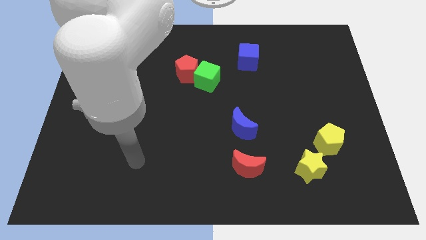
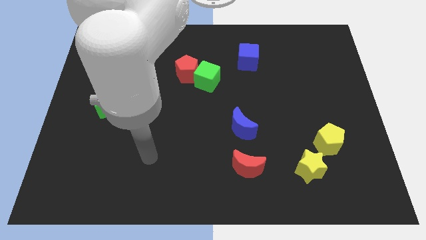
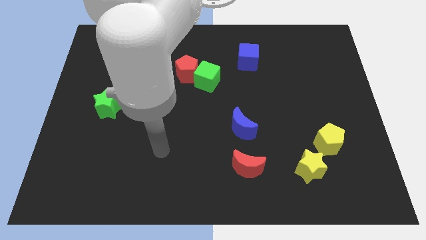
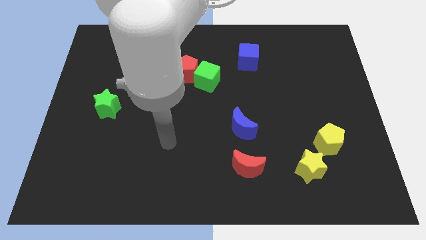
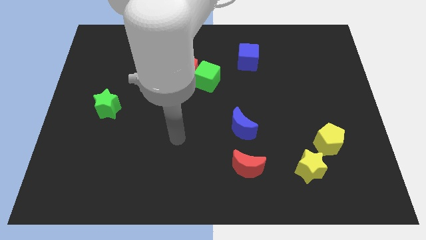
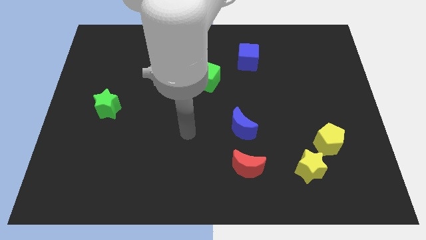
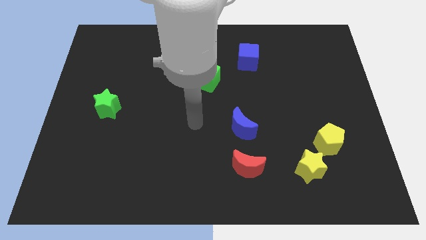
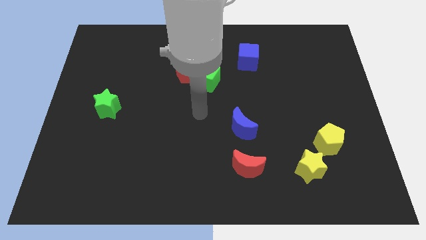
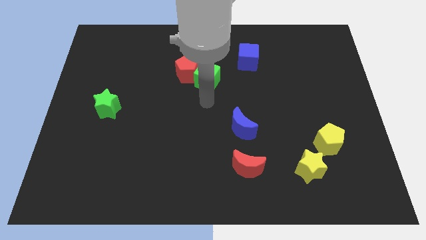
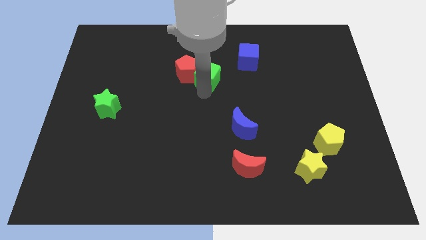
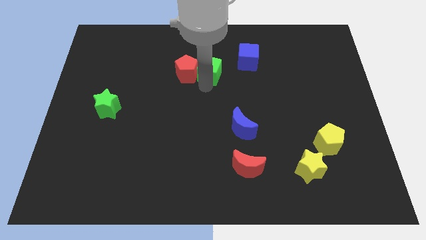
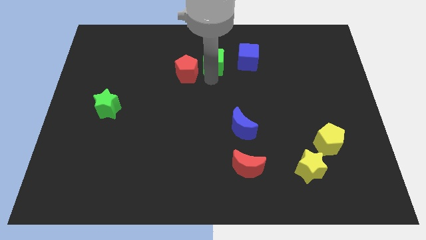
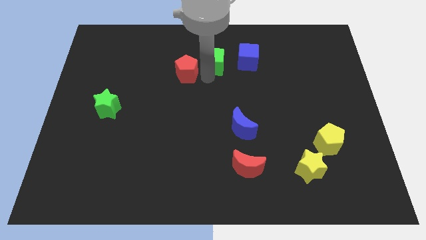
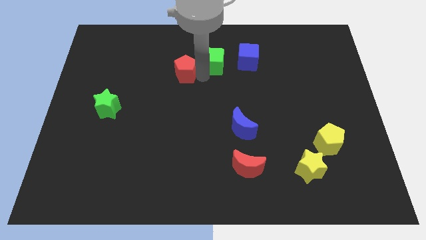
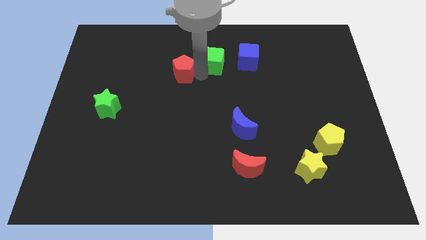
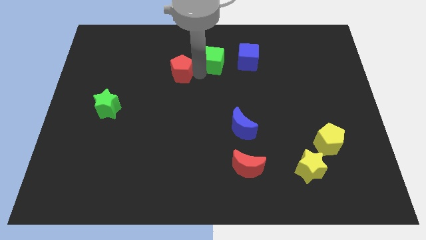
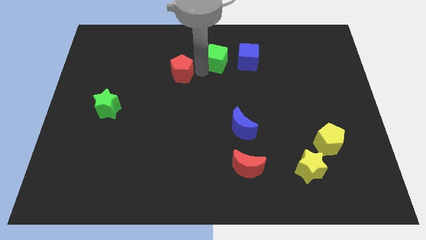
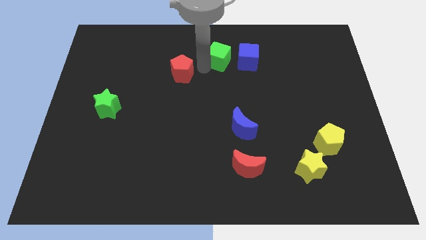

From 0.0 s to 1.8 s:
separate the red pentagon from the green cube

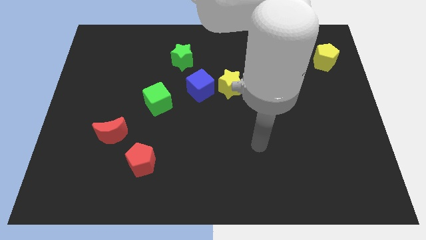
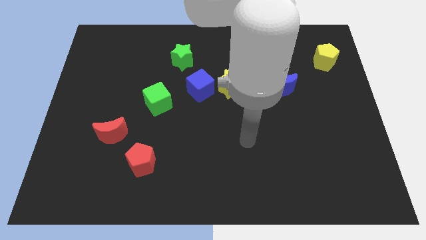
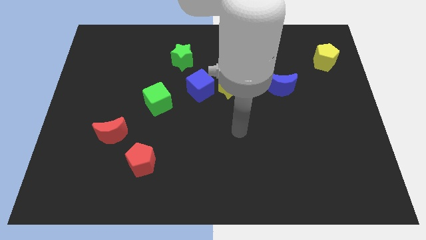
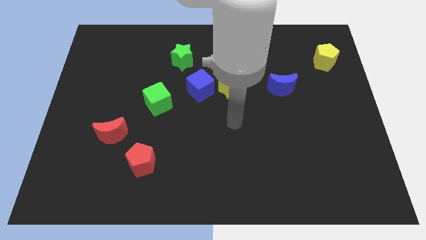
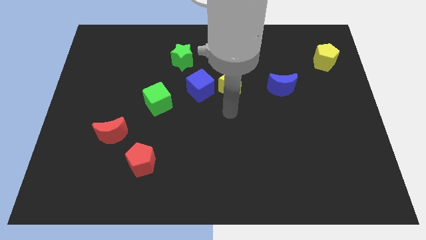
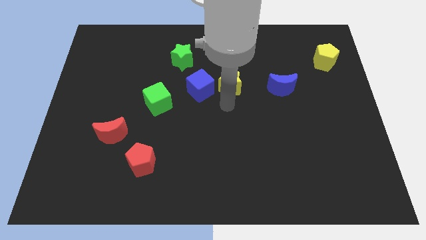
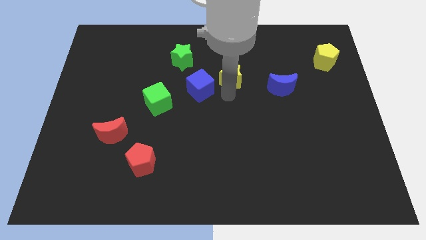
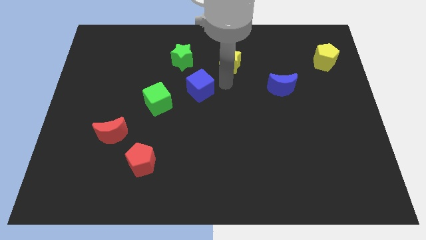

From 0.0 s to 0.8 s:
pull the blue cube apart from the yellow star

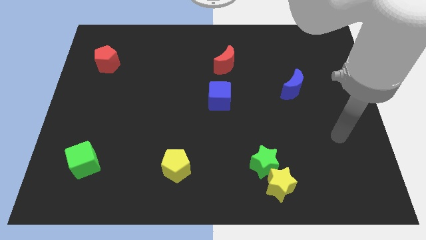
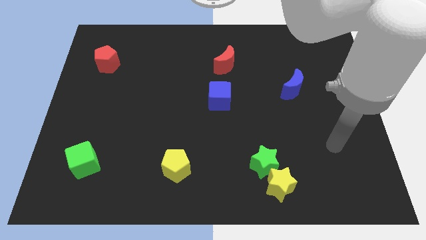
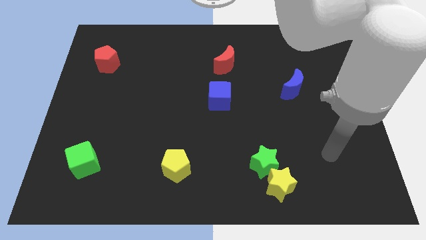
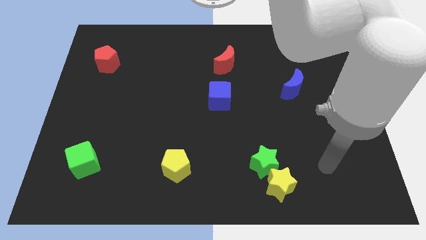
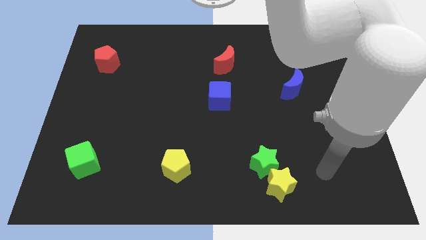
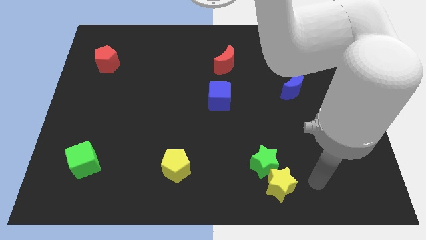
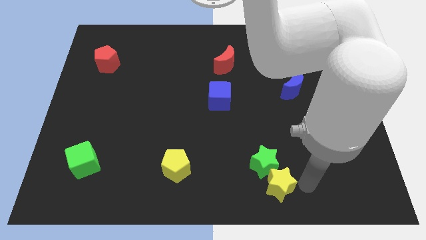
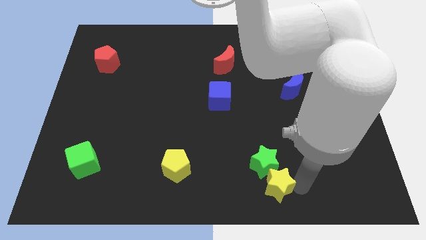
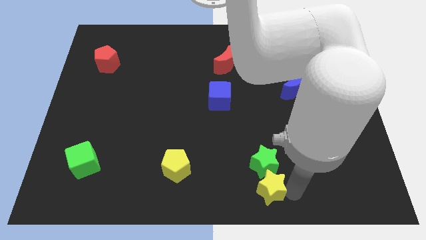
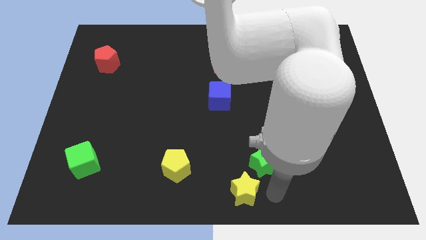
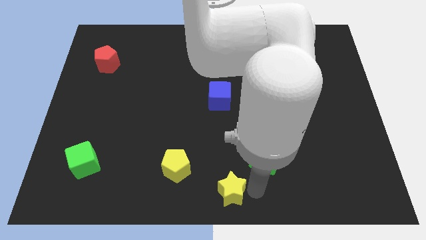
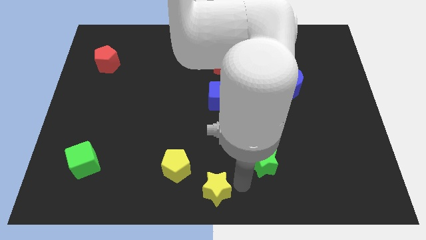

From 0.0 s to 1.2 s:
pull the green star apart from the yellow star

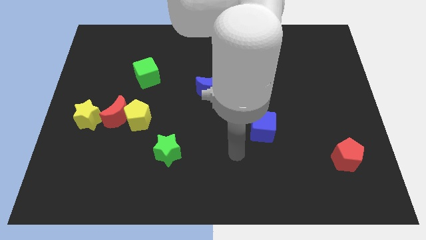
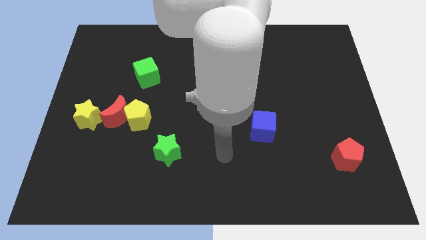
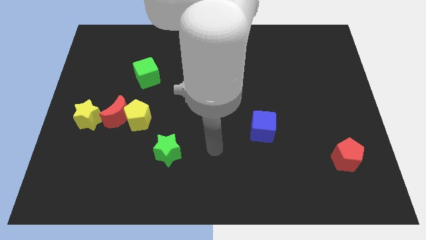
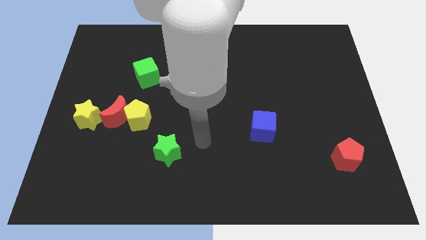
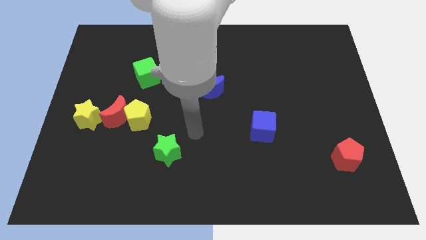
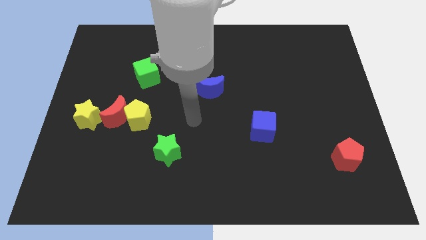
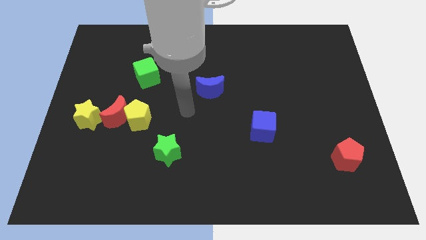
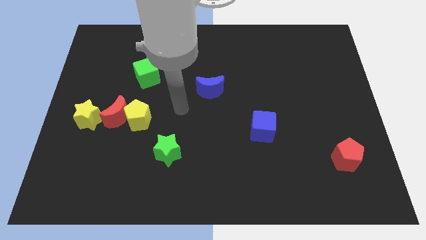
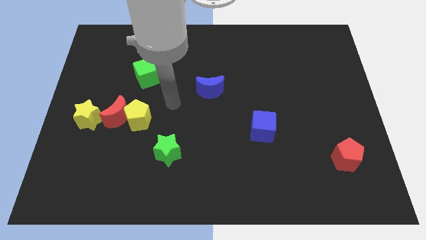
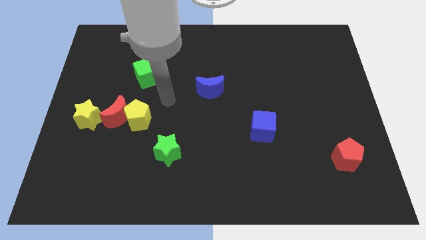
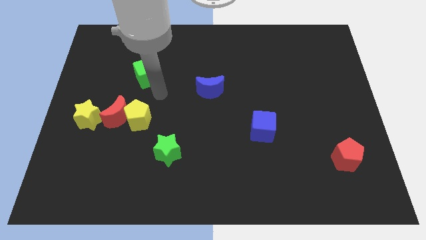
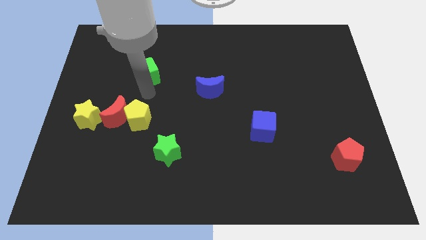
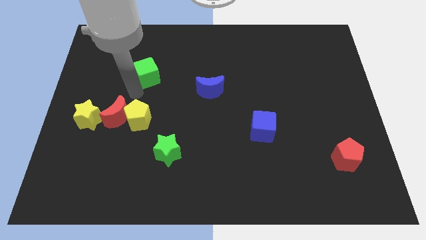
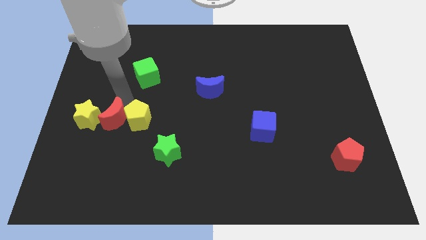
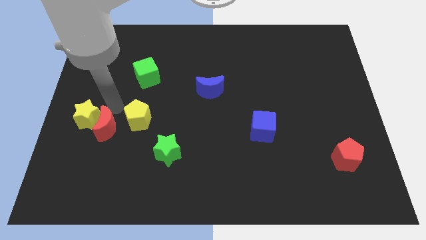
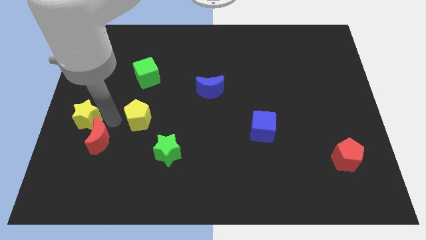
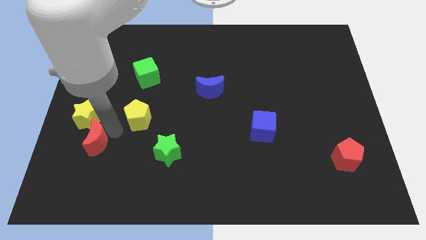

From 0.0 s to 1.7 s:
pull the yellow pentagon apart from the red moon

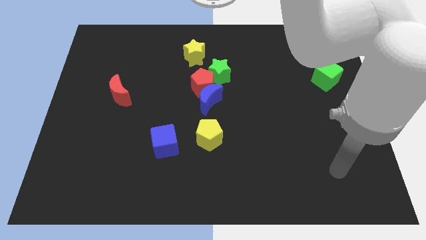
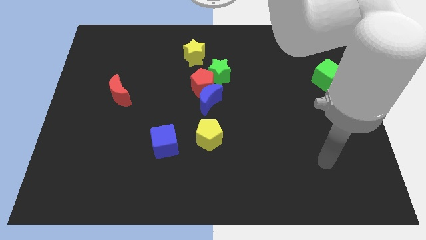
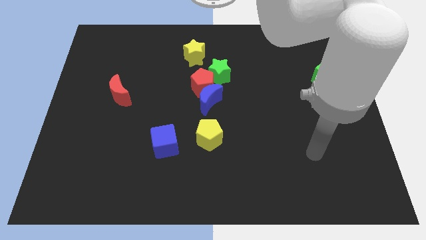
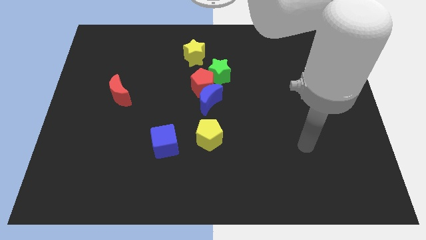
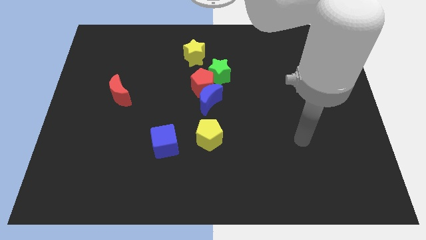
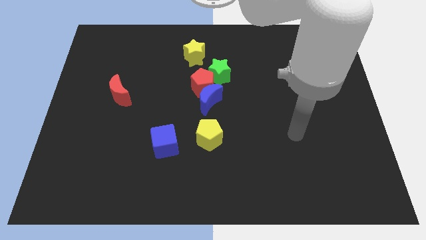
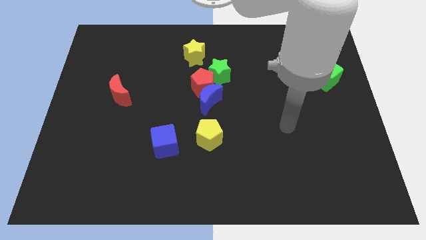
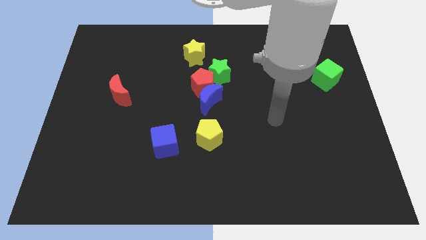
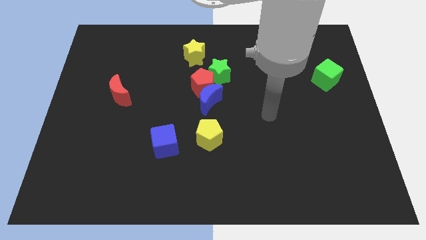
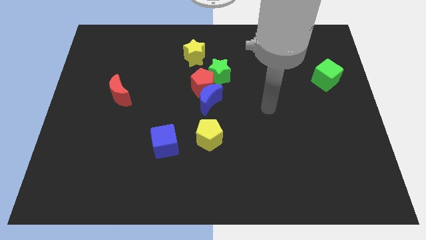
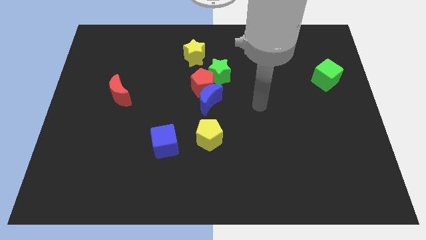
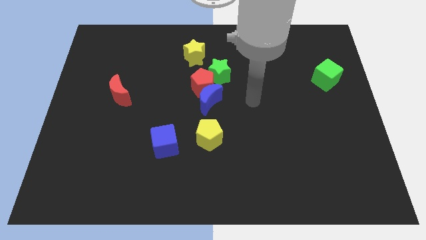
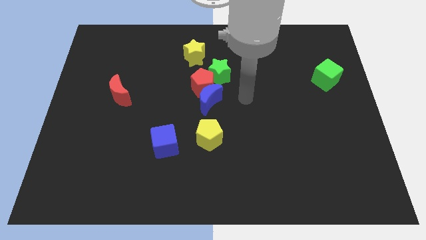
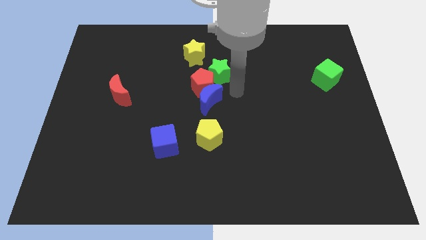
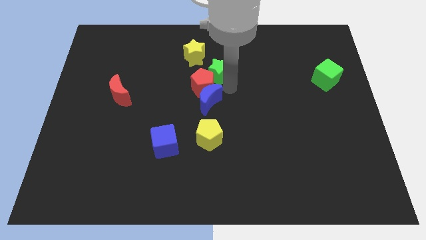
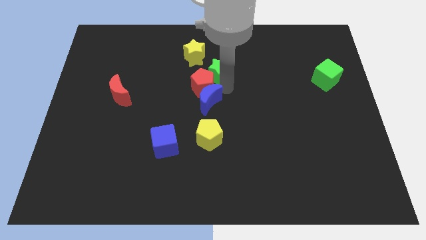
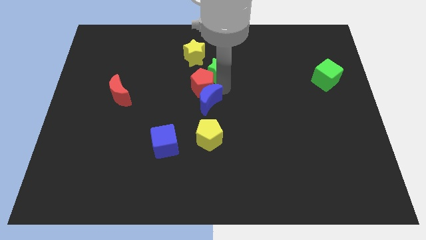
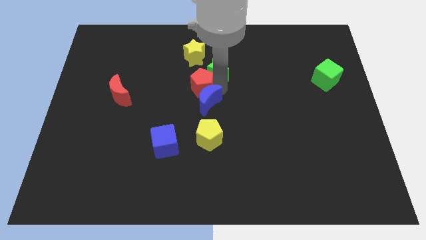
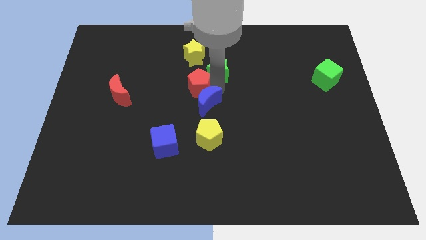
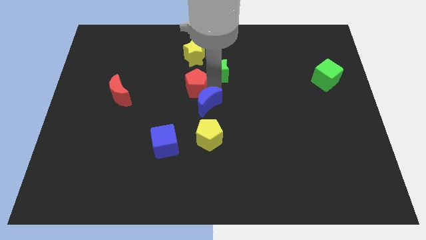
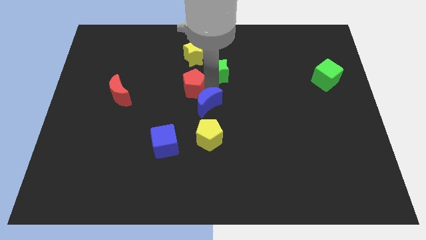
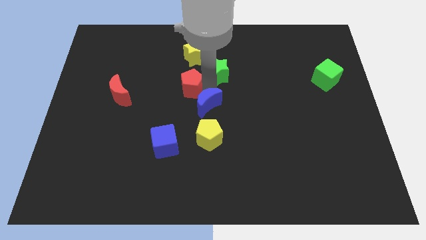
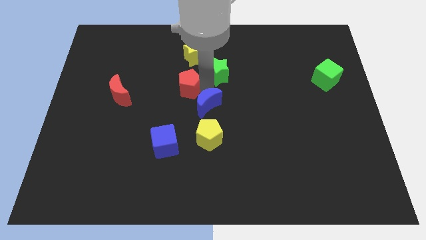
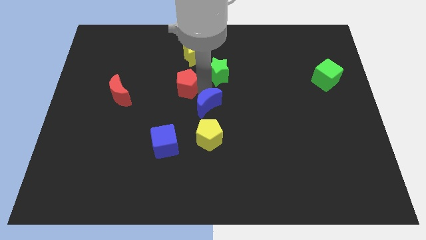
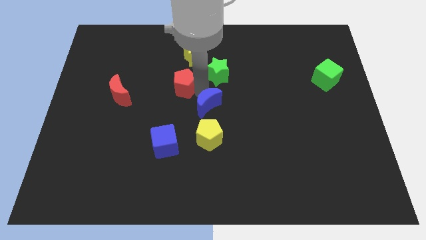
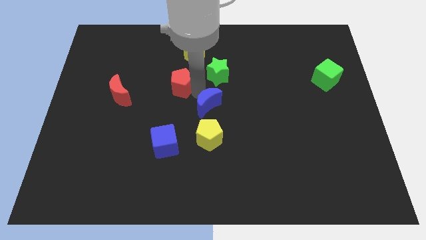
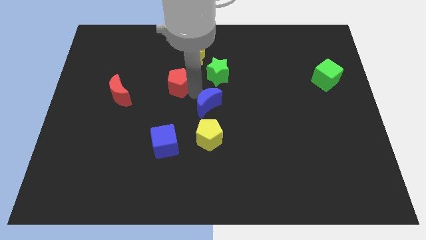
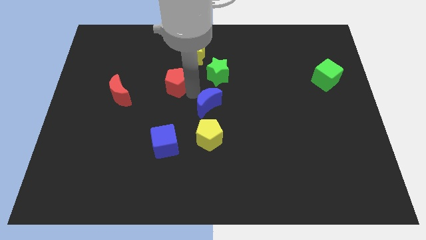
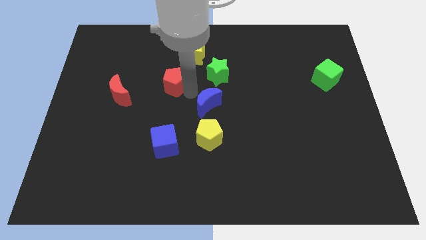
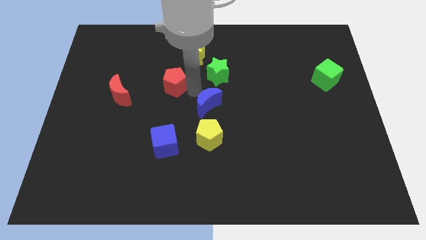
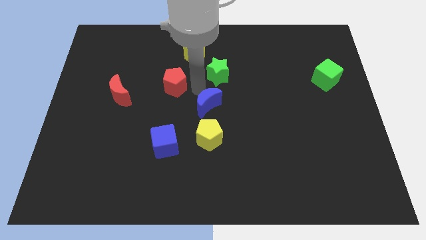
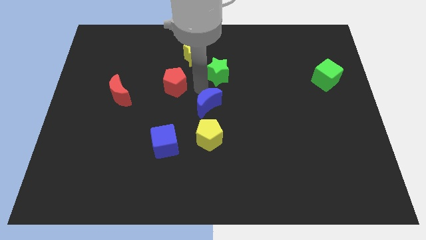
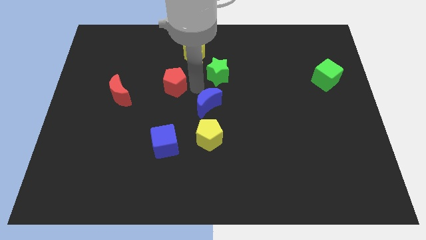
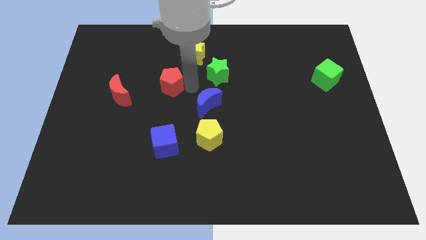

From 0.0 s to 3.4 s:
move the red pentagon away from the blue moon and green star

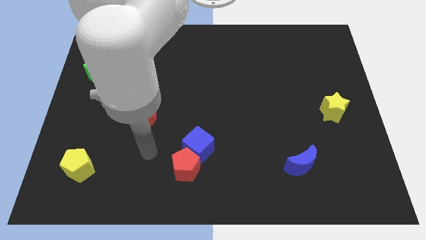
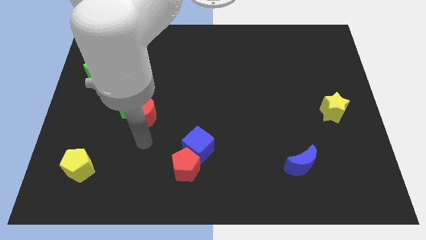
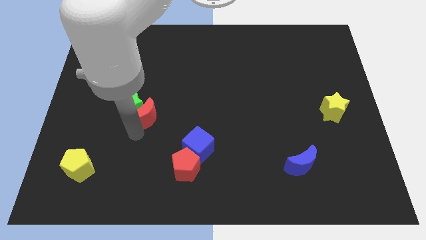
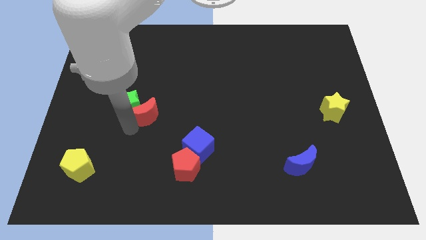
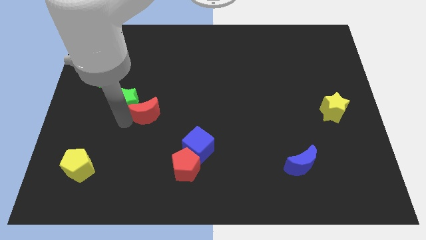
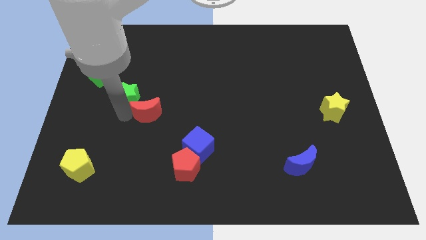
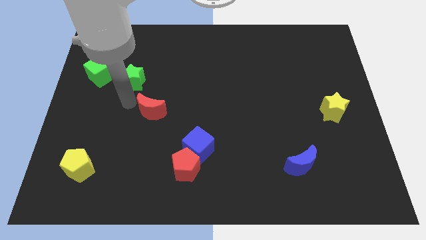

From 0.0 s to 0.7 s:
pull the red moon apart from the green star
